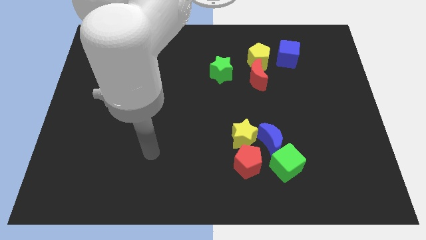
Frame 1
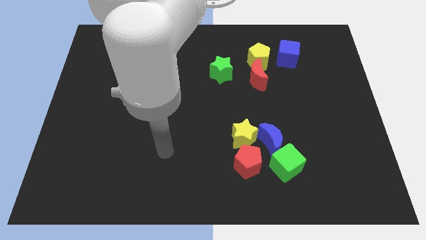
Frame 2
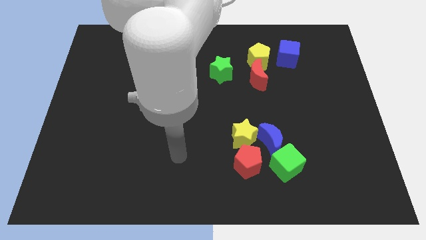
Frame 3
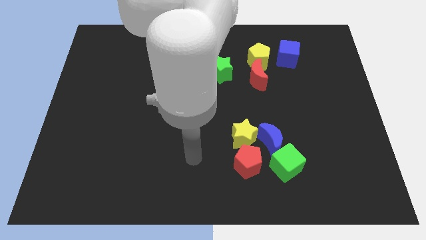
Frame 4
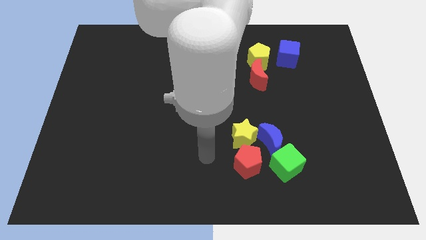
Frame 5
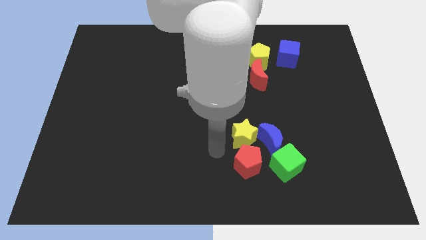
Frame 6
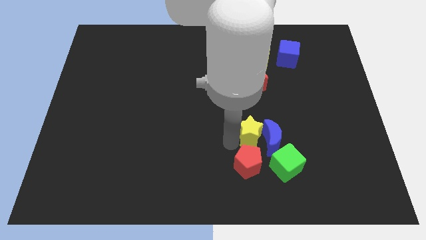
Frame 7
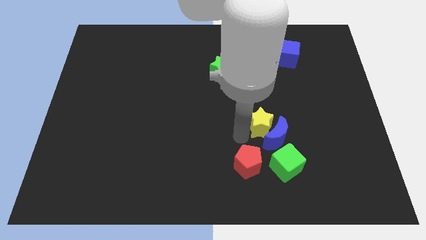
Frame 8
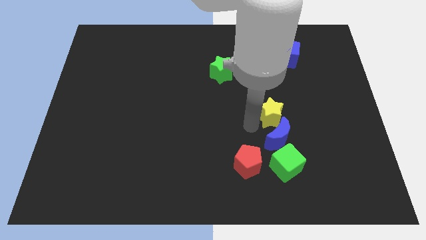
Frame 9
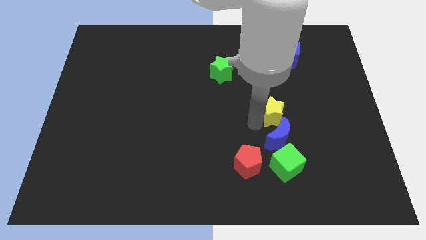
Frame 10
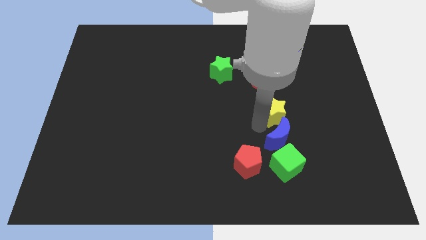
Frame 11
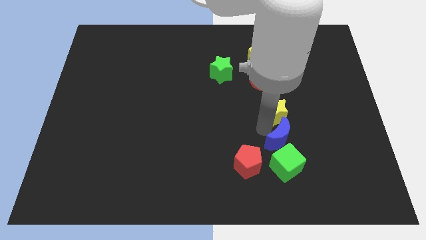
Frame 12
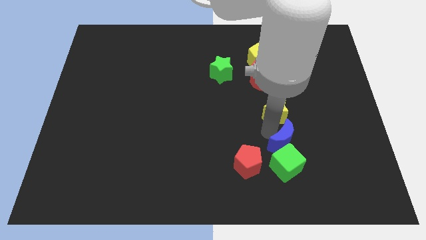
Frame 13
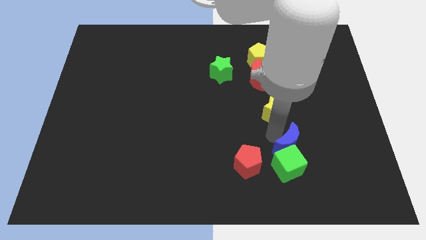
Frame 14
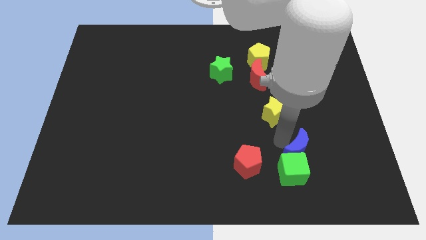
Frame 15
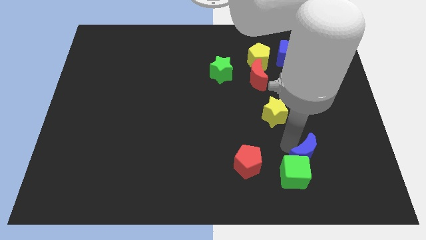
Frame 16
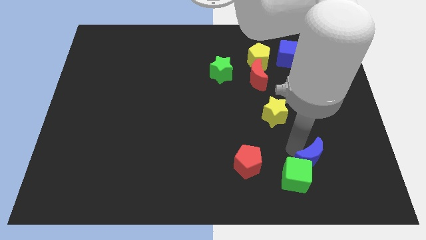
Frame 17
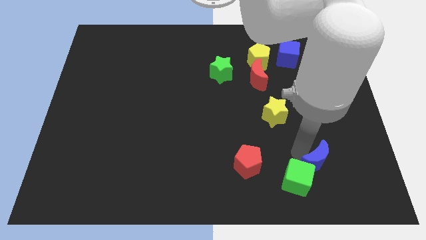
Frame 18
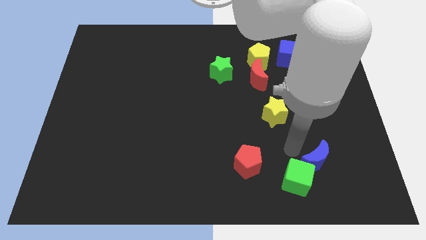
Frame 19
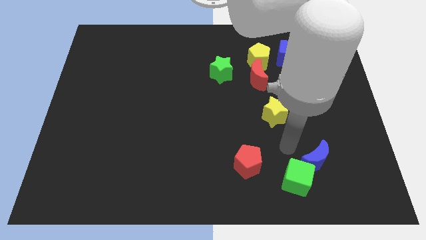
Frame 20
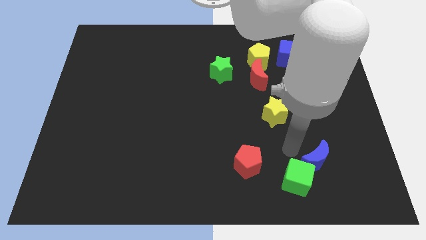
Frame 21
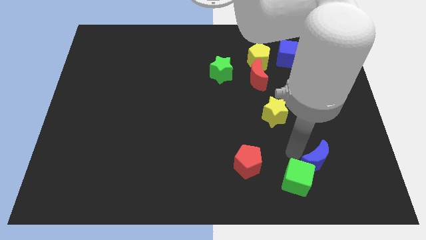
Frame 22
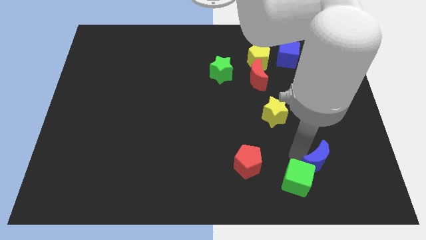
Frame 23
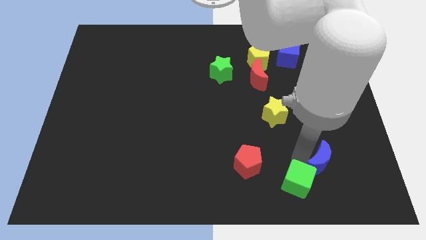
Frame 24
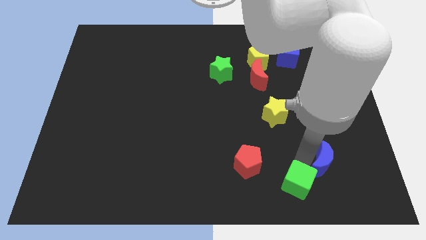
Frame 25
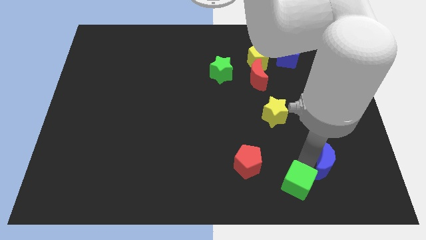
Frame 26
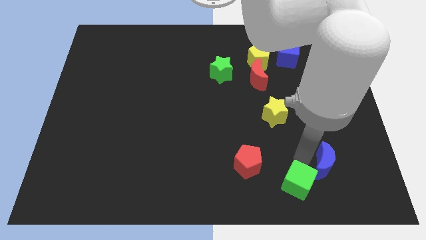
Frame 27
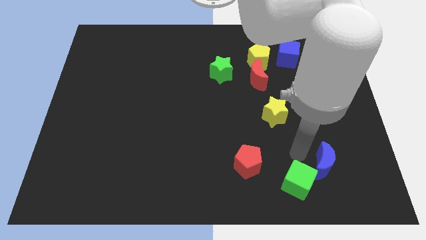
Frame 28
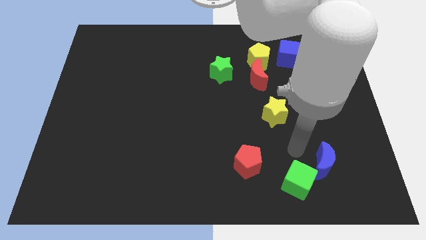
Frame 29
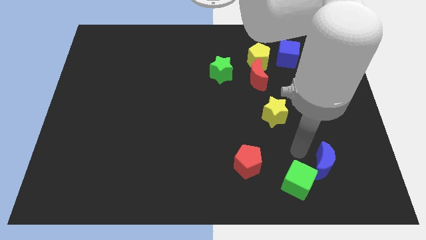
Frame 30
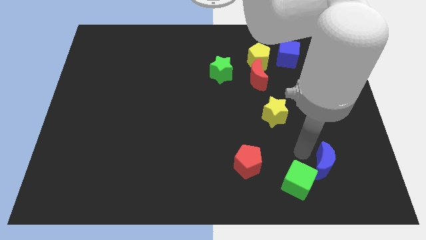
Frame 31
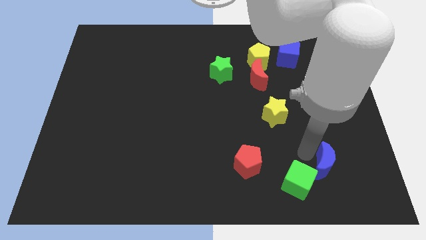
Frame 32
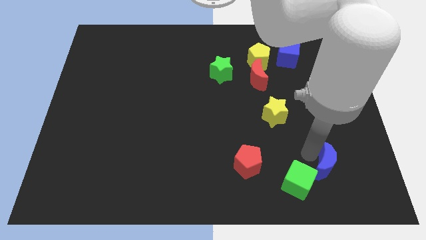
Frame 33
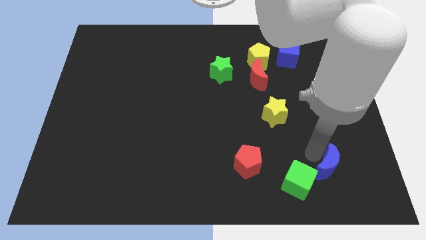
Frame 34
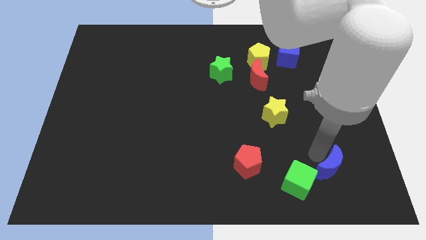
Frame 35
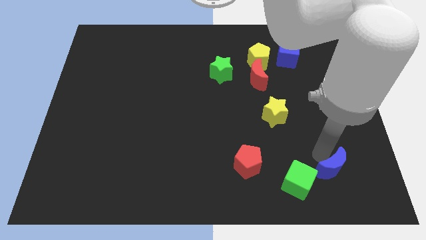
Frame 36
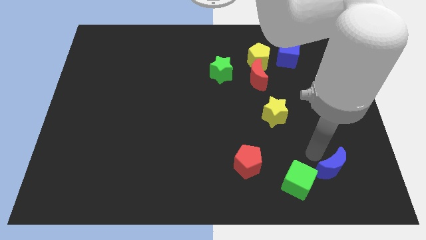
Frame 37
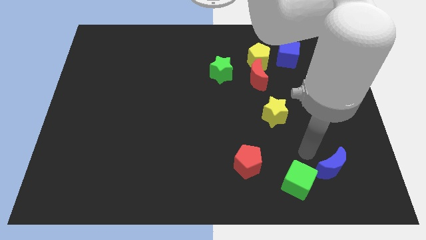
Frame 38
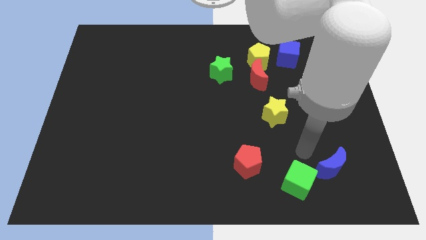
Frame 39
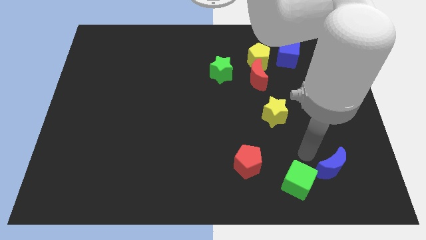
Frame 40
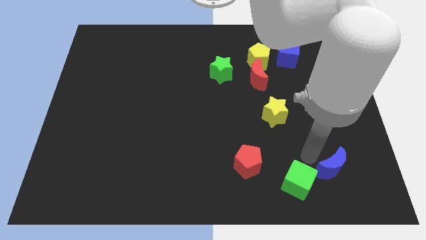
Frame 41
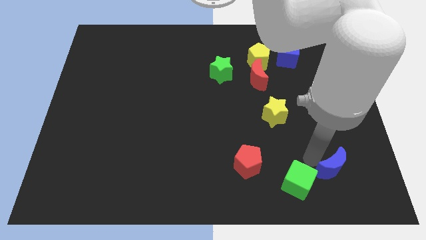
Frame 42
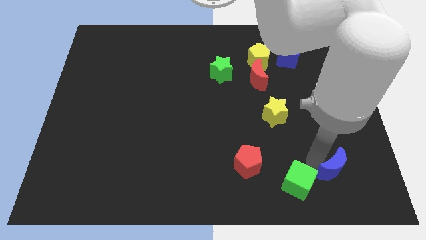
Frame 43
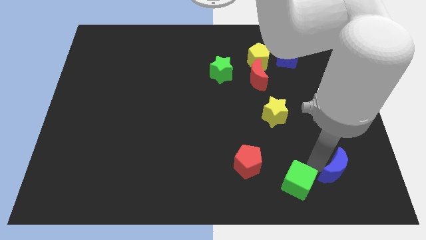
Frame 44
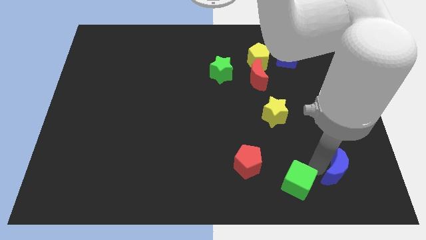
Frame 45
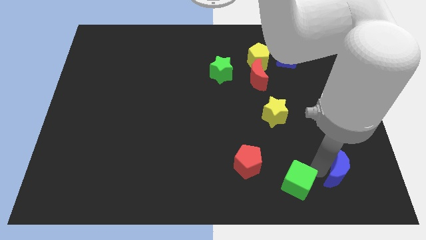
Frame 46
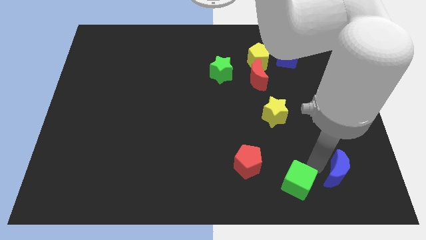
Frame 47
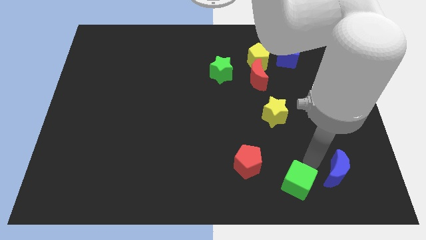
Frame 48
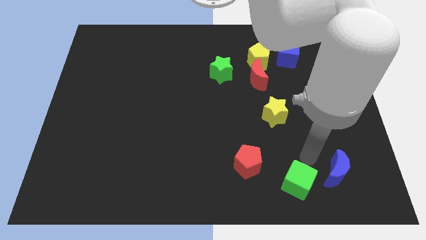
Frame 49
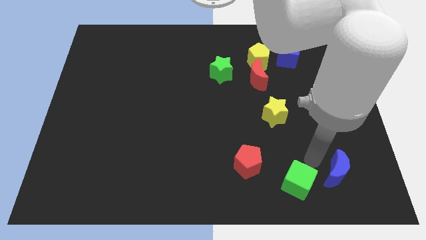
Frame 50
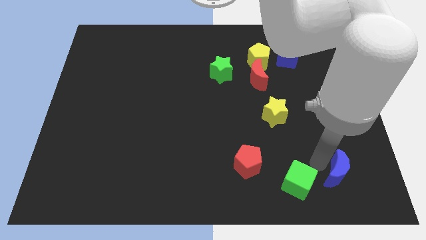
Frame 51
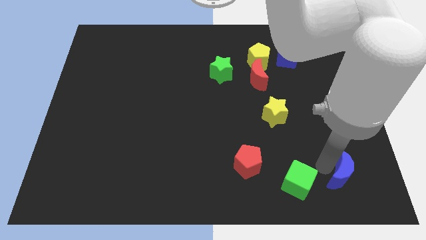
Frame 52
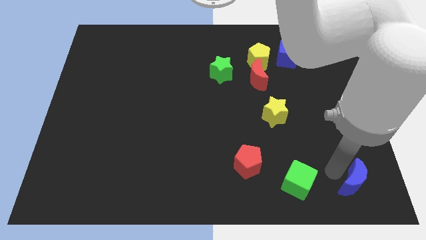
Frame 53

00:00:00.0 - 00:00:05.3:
slide the blue moon to the bottom right

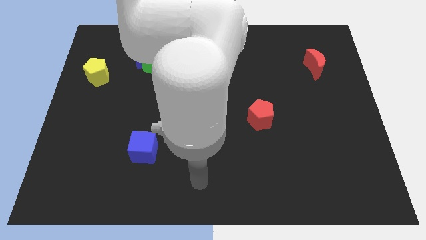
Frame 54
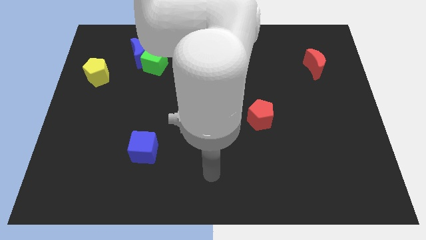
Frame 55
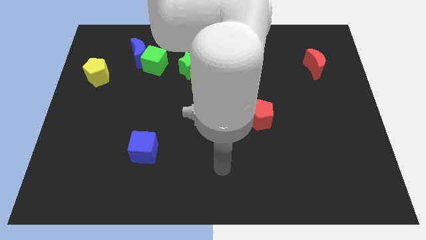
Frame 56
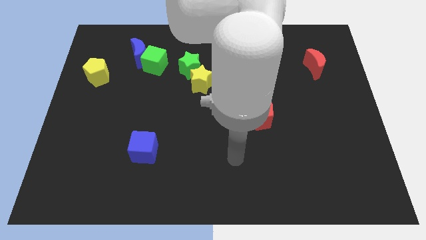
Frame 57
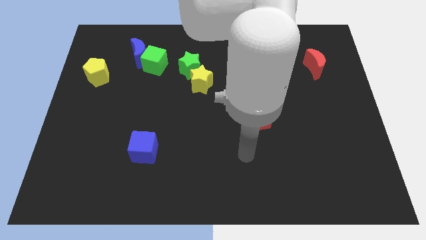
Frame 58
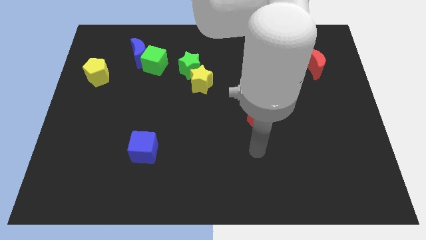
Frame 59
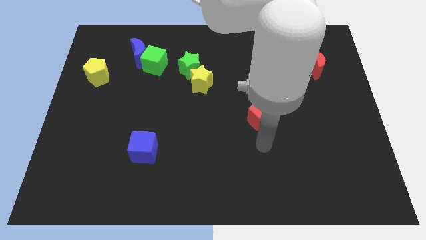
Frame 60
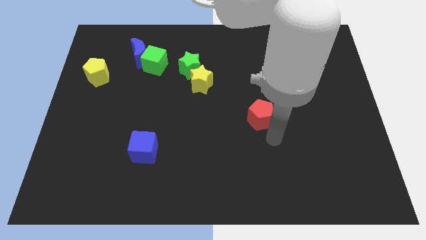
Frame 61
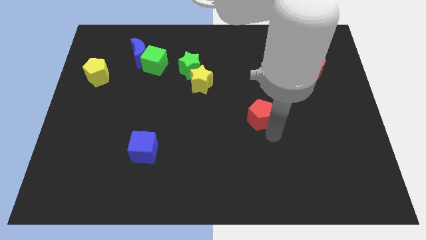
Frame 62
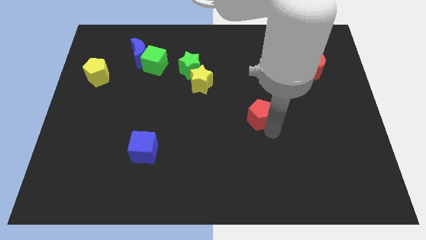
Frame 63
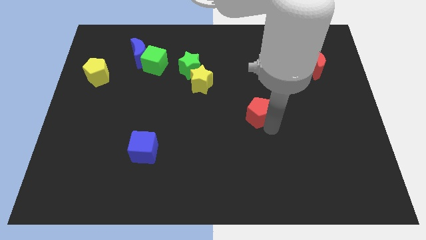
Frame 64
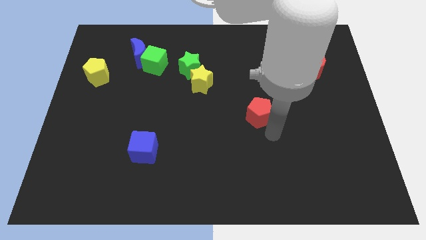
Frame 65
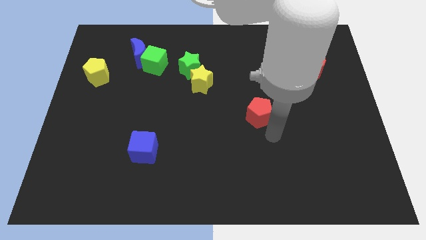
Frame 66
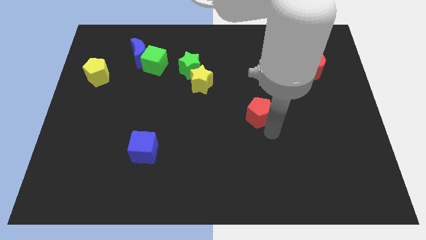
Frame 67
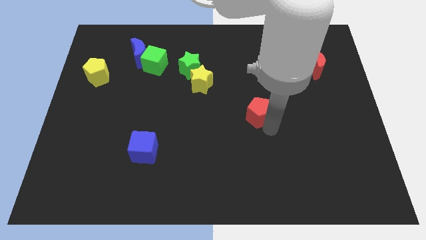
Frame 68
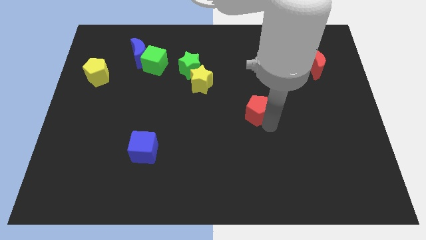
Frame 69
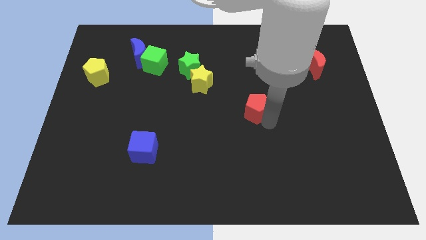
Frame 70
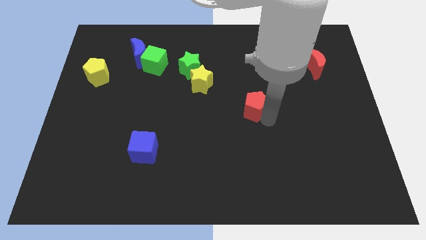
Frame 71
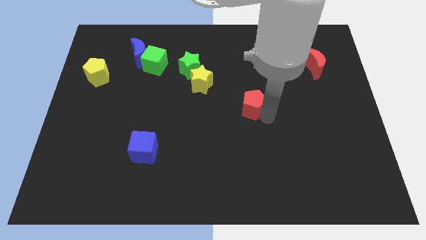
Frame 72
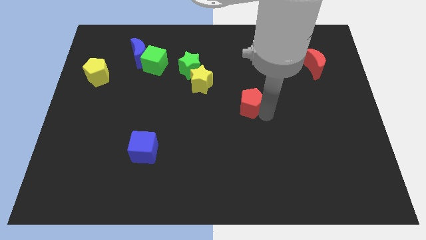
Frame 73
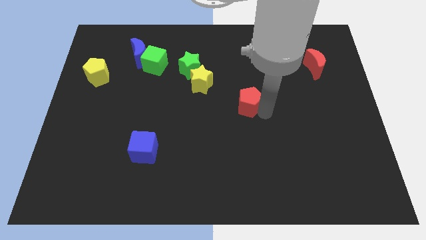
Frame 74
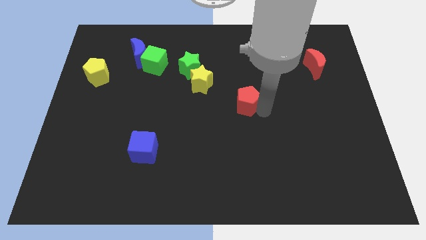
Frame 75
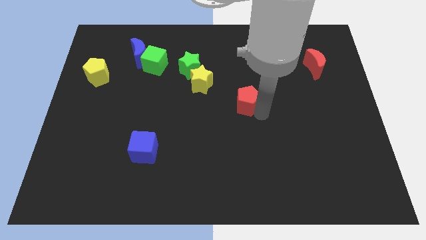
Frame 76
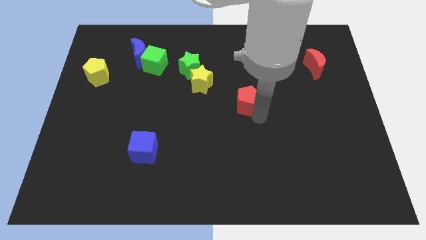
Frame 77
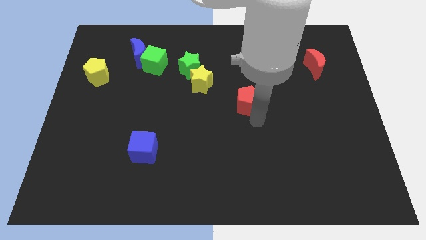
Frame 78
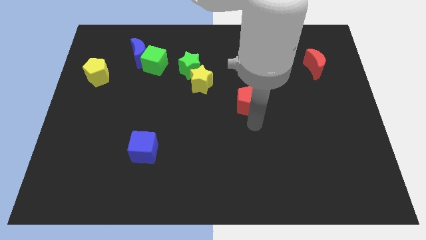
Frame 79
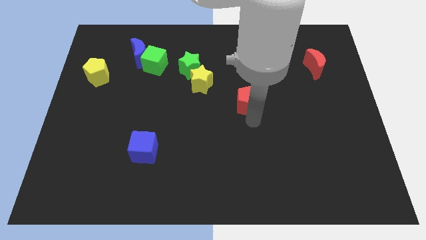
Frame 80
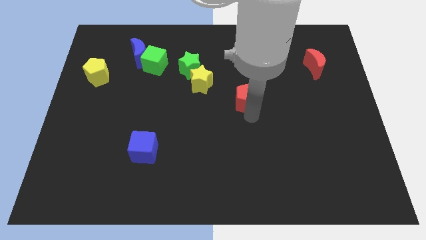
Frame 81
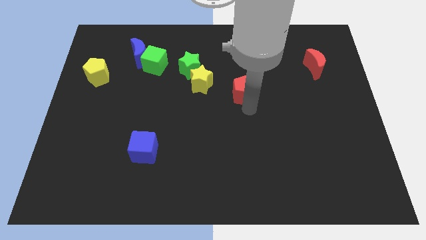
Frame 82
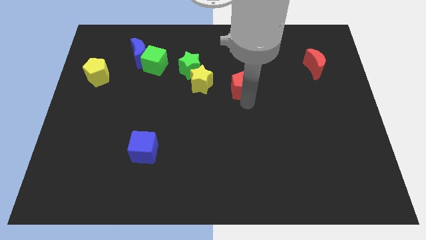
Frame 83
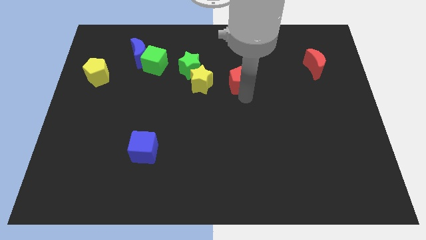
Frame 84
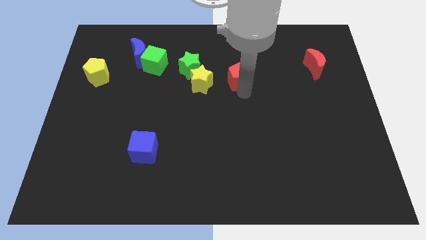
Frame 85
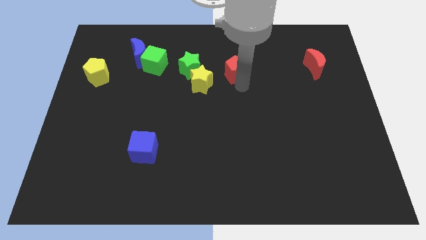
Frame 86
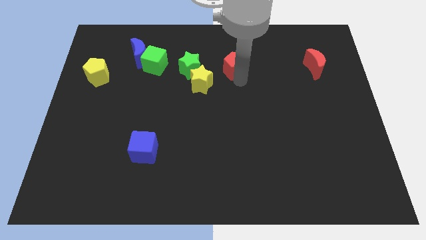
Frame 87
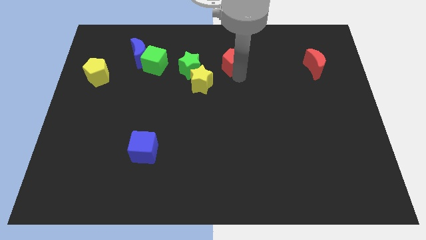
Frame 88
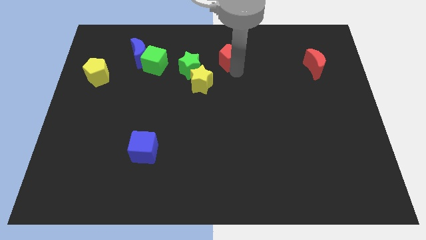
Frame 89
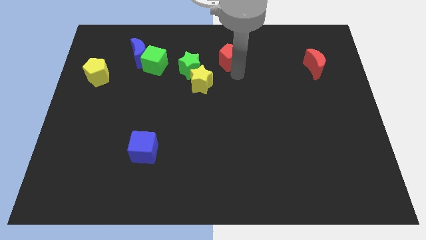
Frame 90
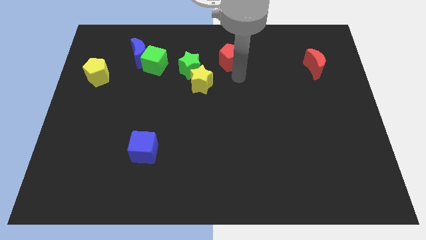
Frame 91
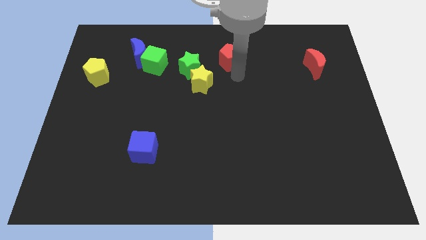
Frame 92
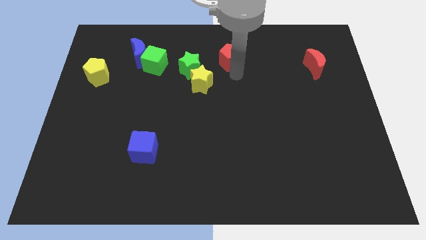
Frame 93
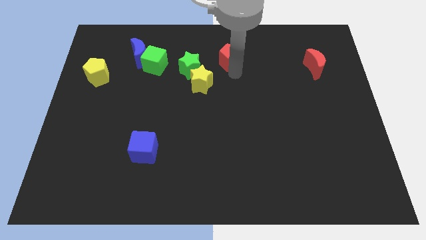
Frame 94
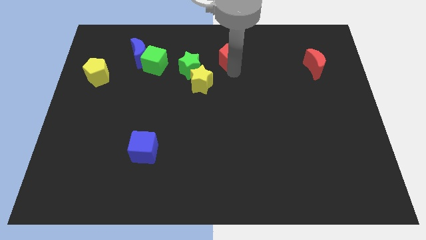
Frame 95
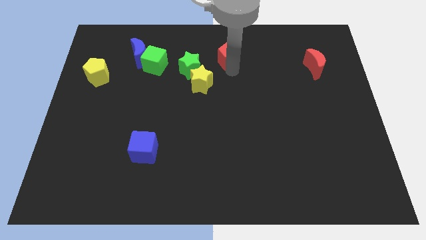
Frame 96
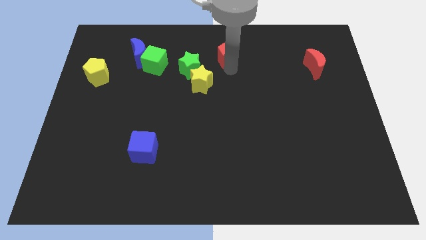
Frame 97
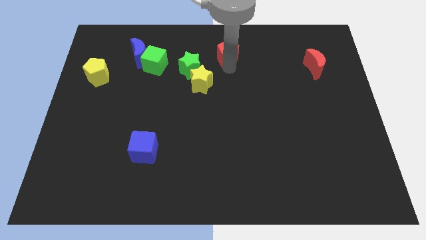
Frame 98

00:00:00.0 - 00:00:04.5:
move the red pentagon to the towards your base
